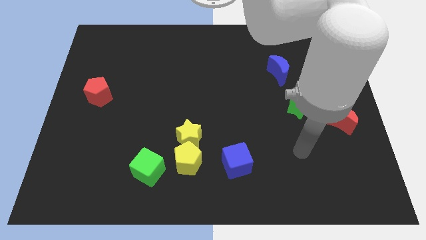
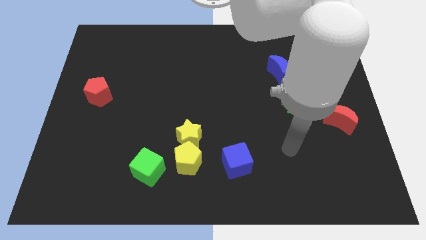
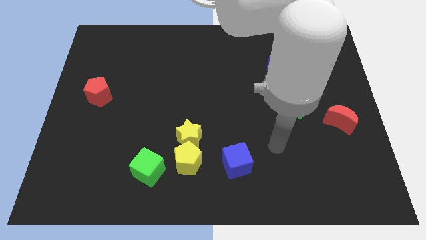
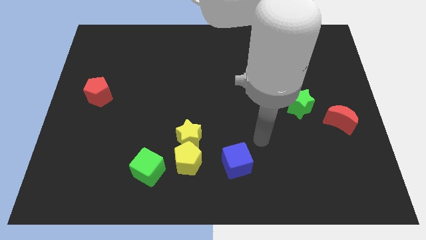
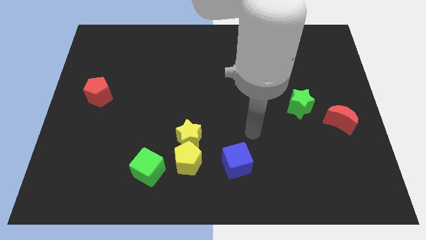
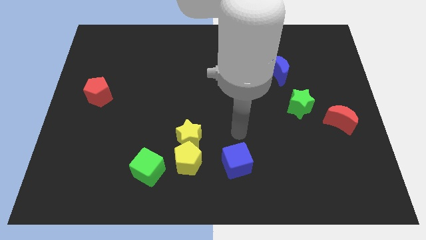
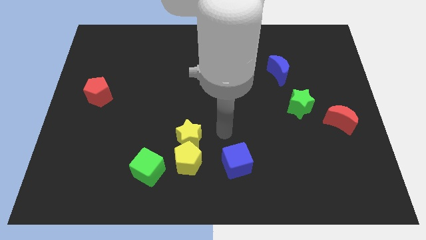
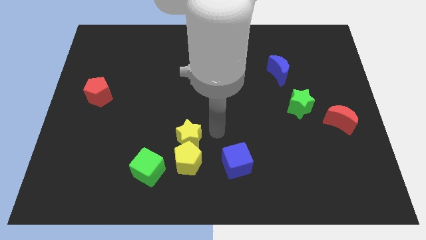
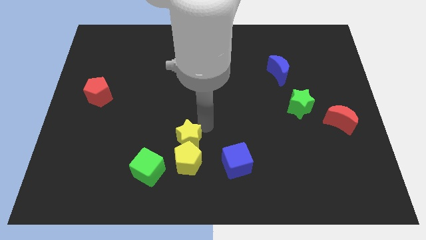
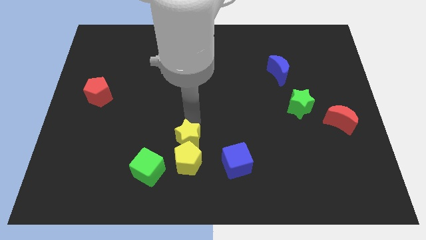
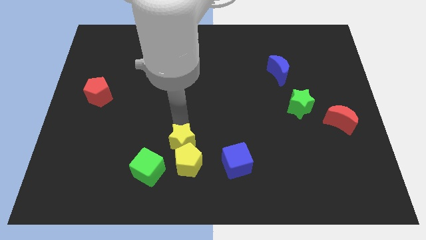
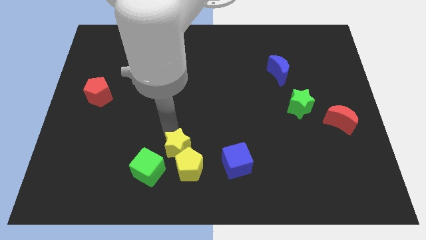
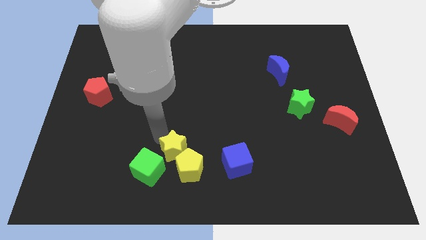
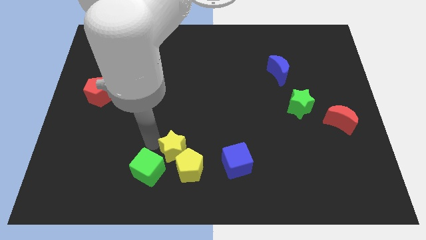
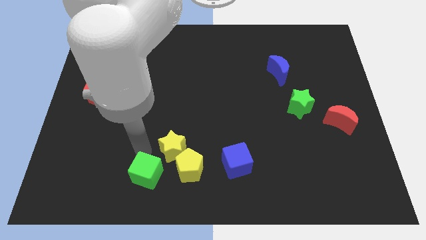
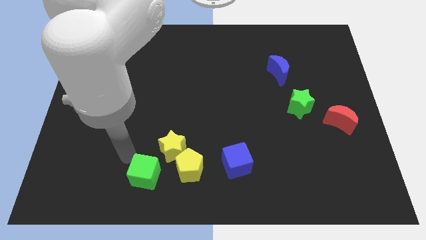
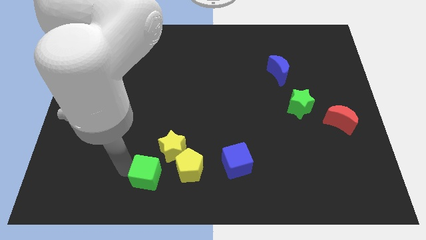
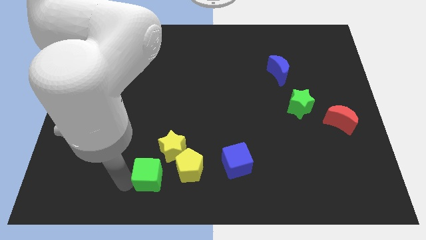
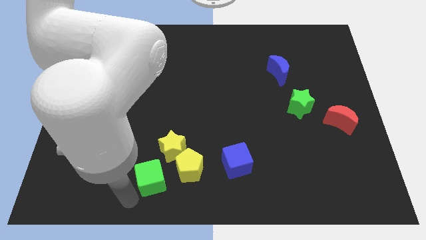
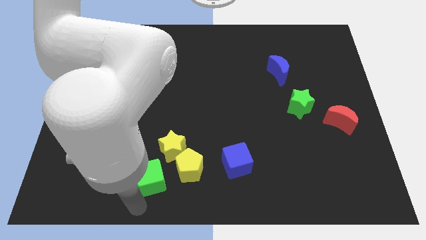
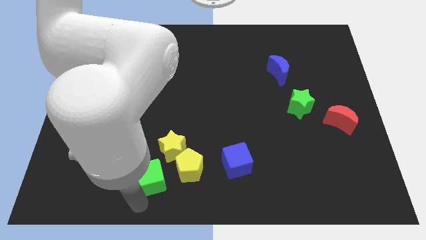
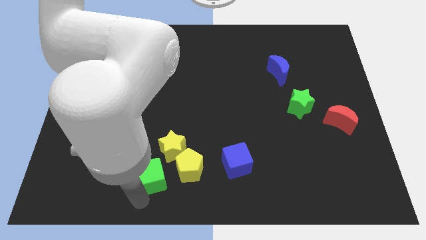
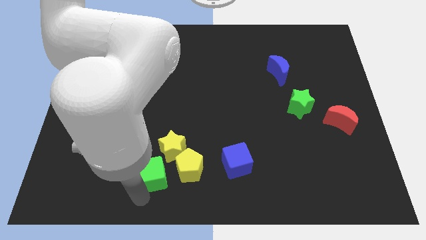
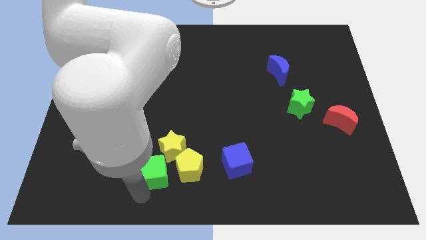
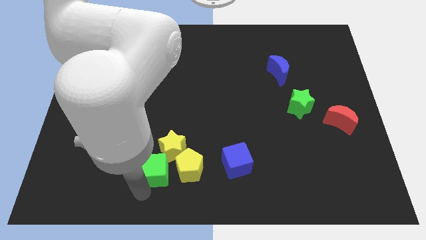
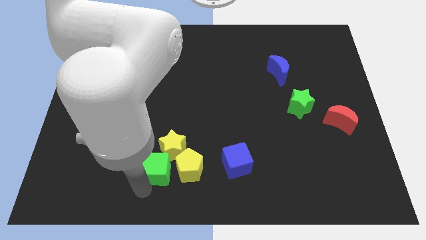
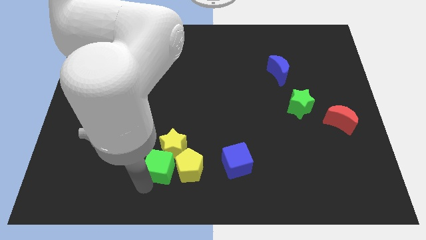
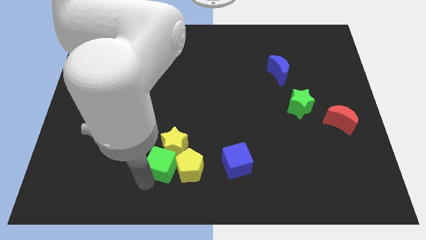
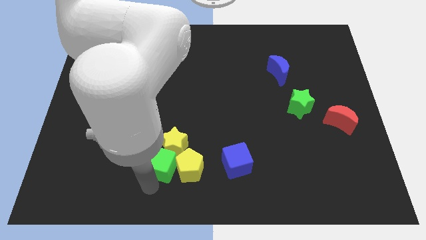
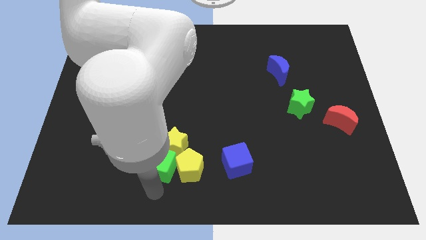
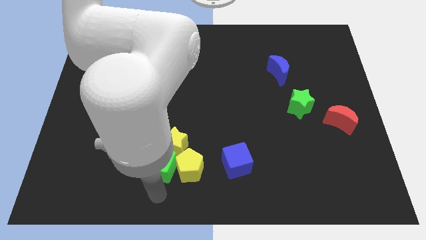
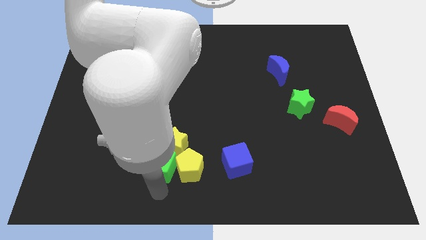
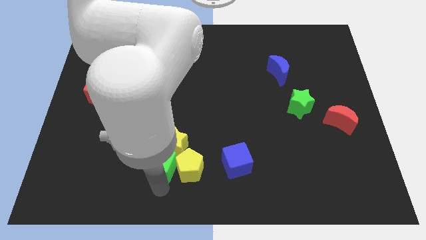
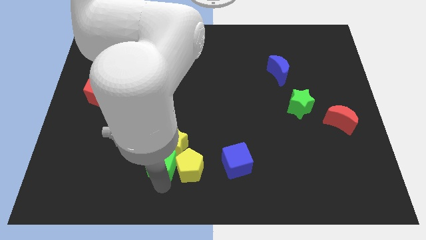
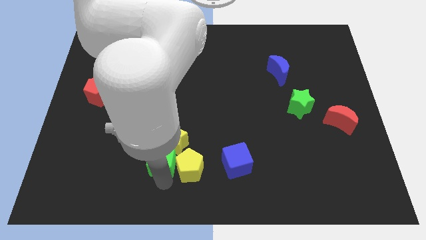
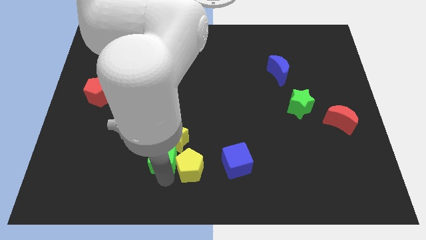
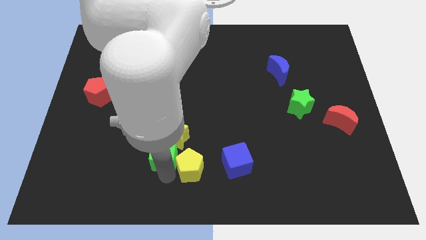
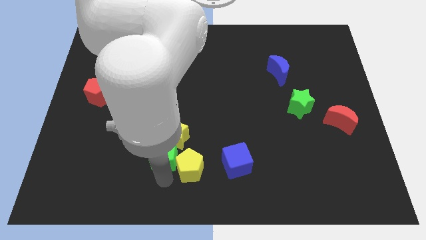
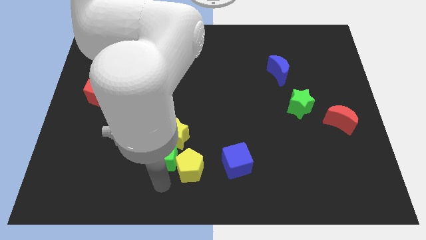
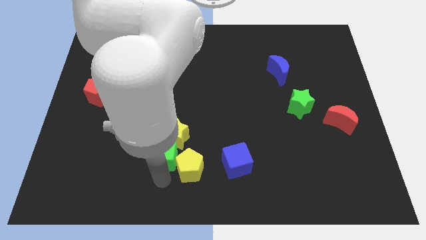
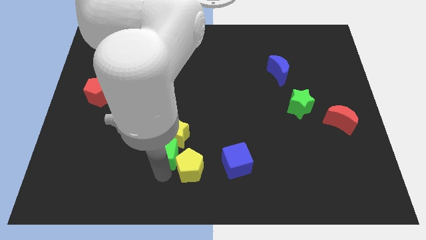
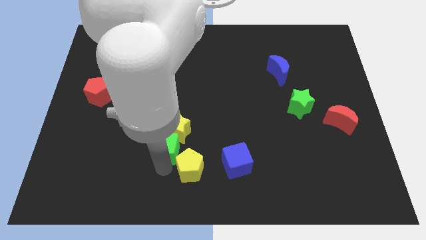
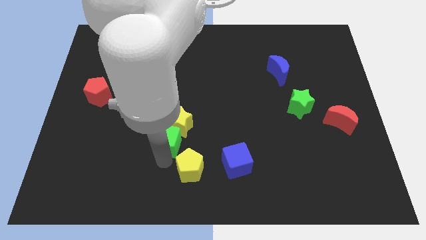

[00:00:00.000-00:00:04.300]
move the green cube diagonally up and right a bit

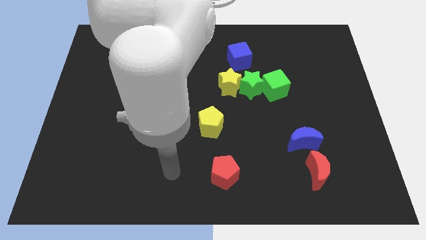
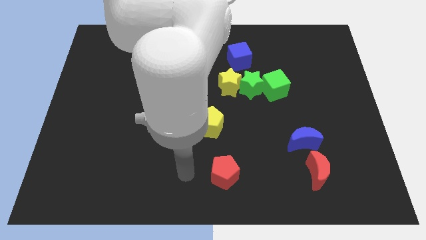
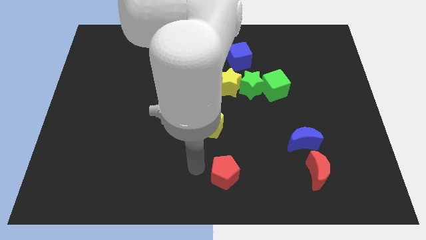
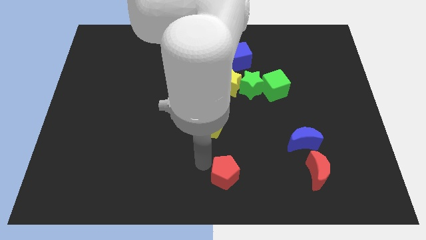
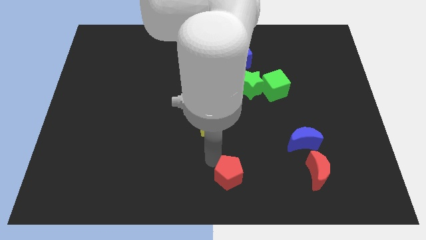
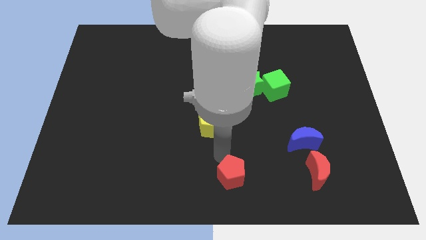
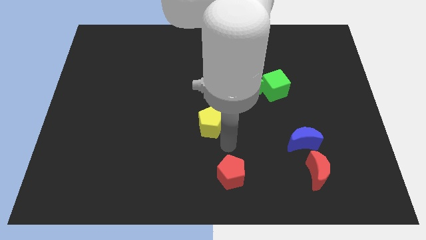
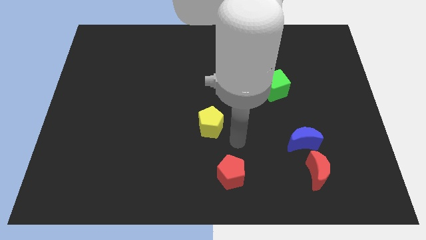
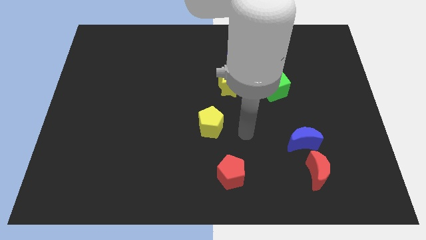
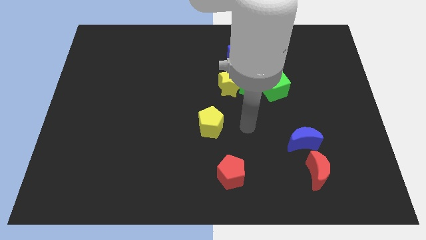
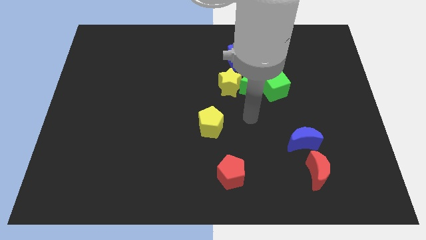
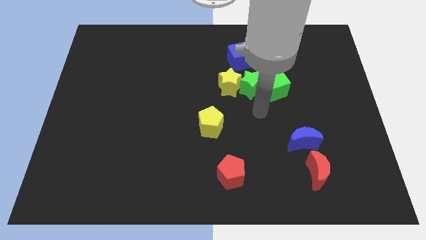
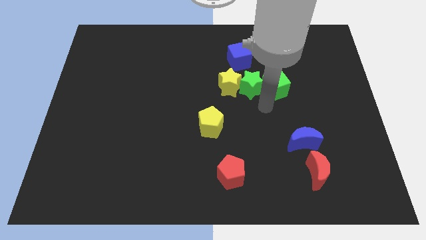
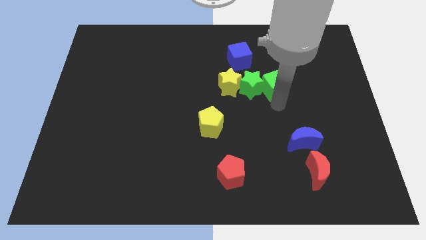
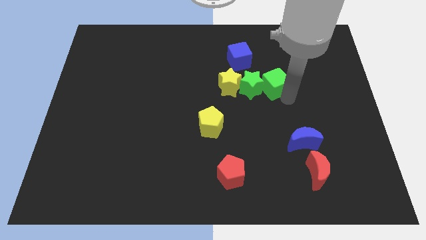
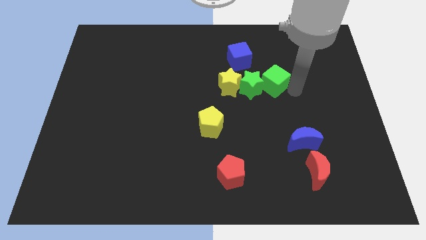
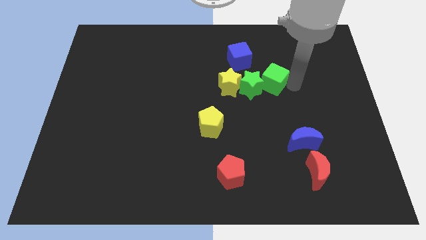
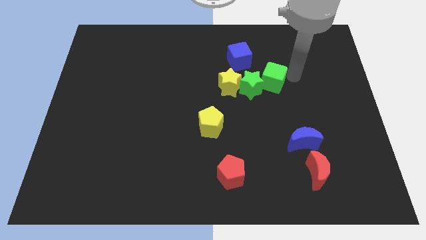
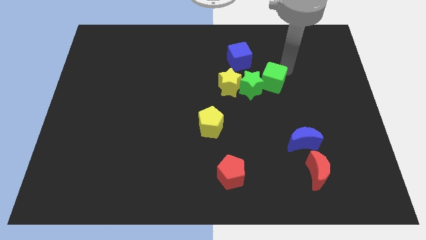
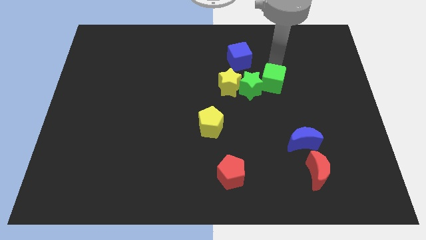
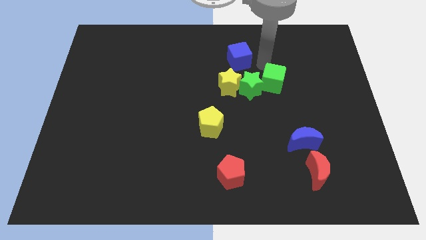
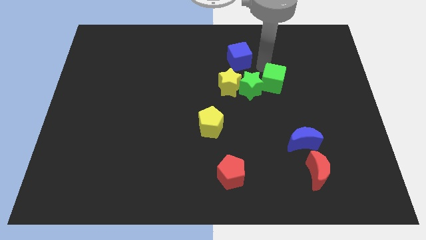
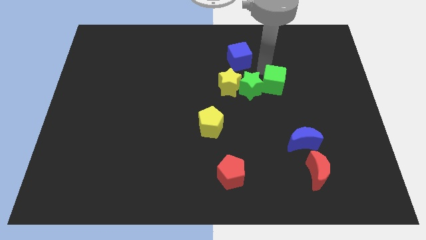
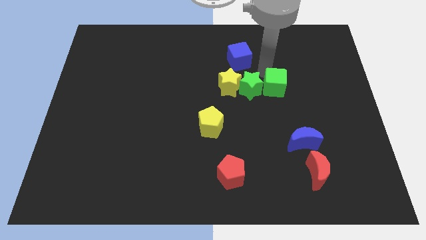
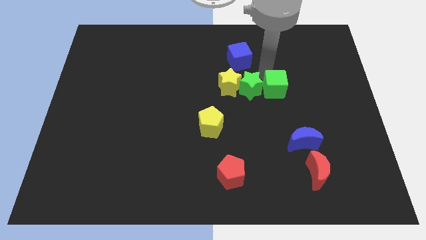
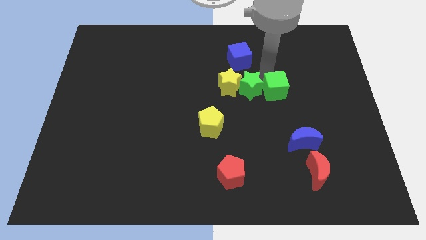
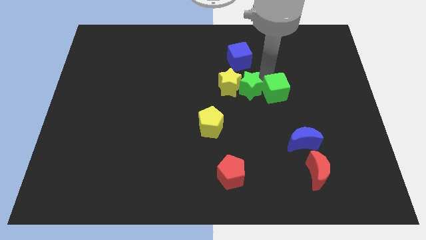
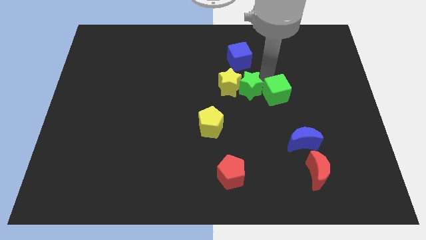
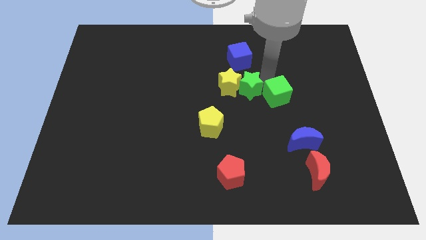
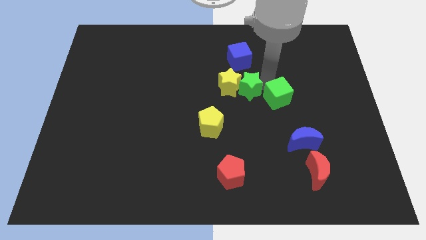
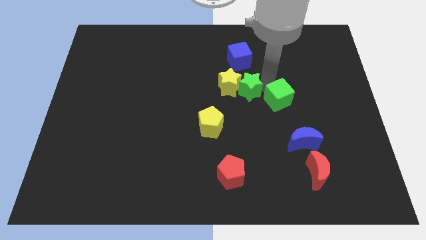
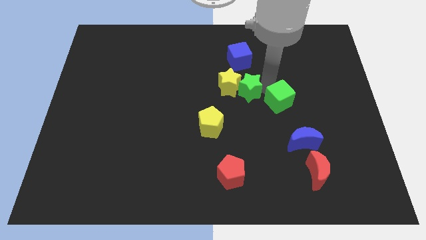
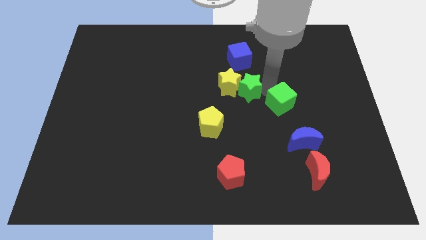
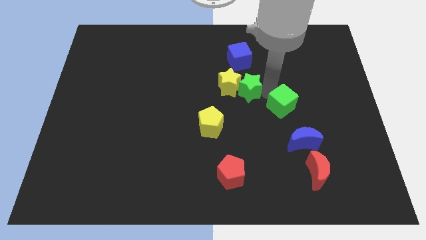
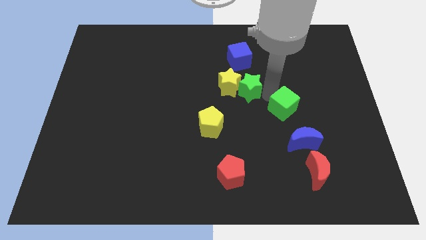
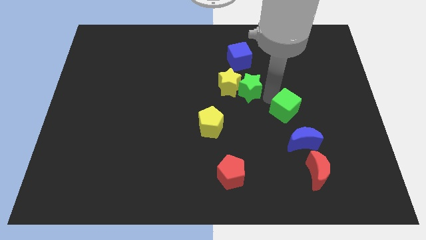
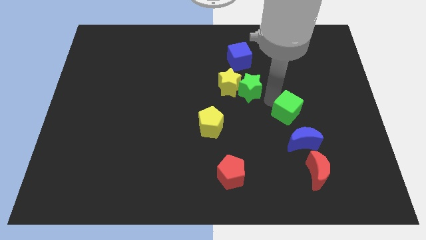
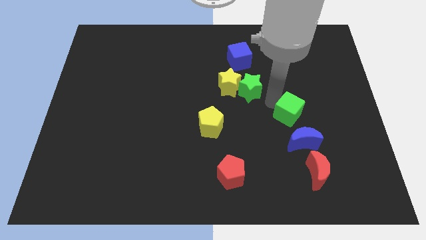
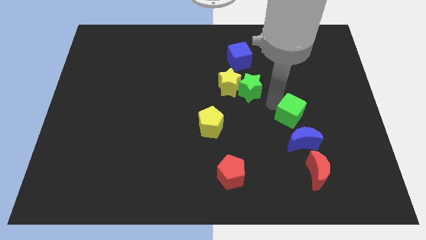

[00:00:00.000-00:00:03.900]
slightly slide the green cube diagonally downwards and right
